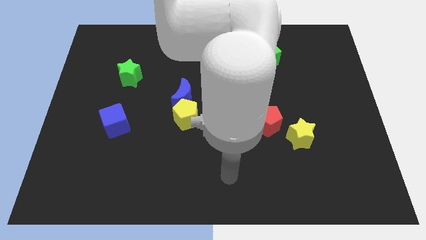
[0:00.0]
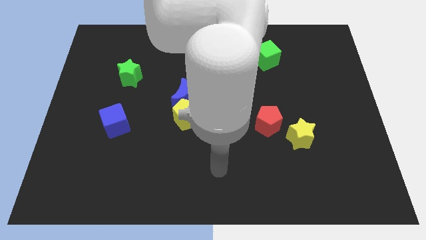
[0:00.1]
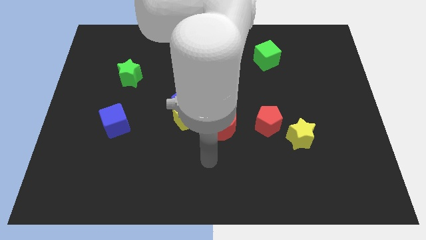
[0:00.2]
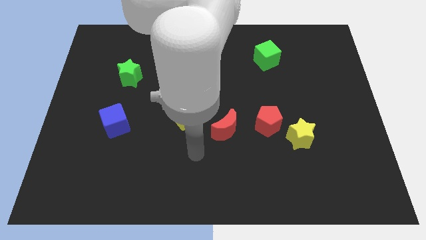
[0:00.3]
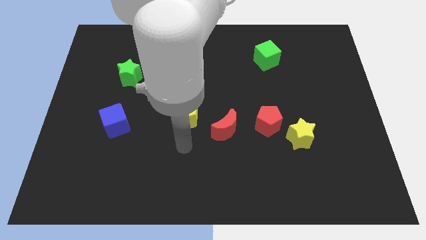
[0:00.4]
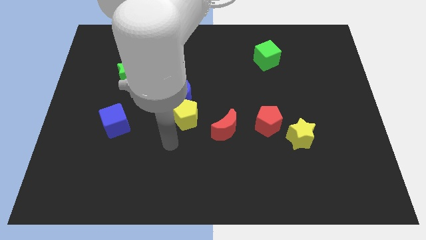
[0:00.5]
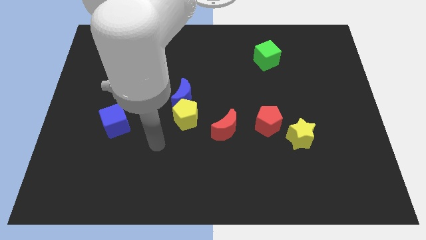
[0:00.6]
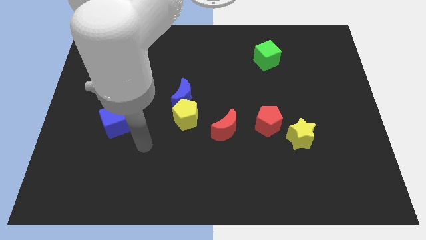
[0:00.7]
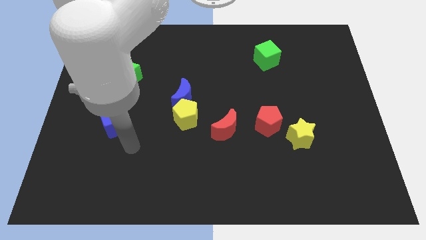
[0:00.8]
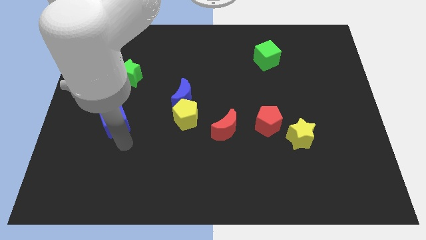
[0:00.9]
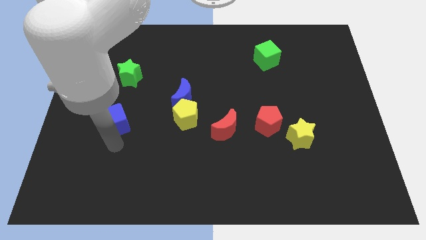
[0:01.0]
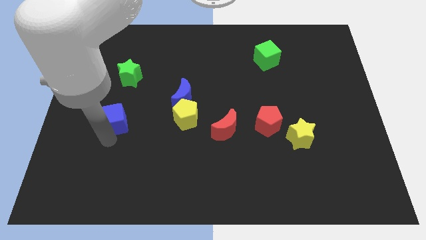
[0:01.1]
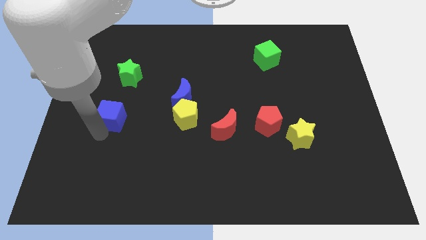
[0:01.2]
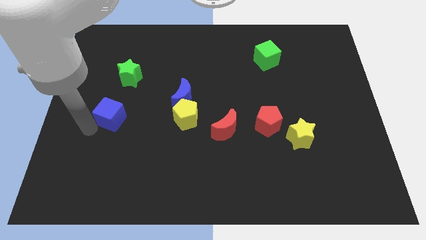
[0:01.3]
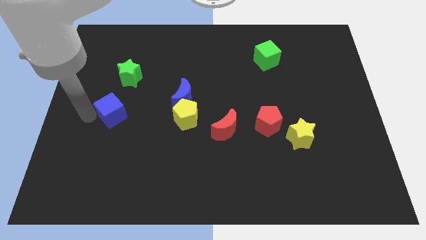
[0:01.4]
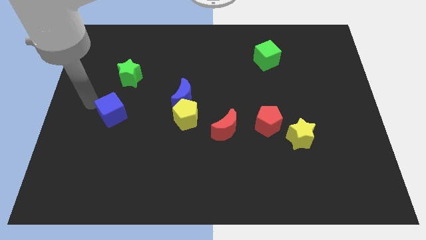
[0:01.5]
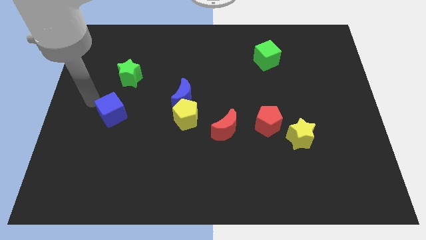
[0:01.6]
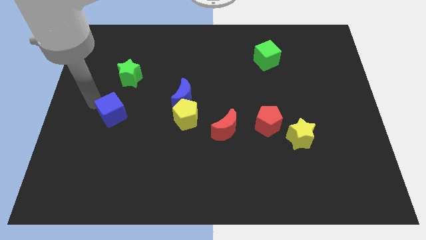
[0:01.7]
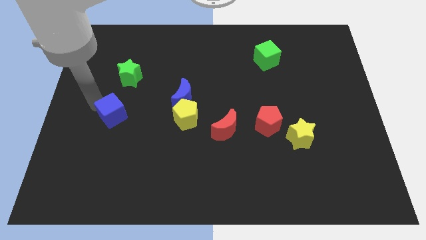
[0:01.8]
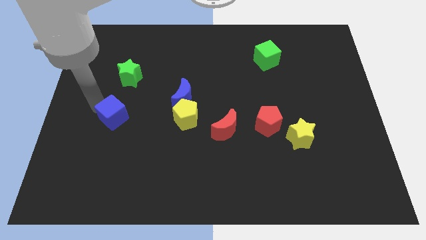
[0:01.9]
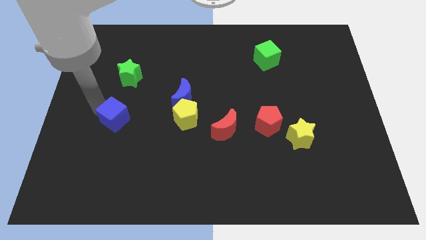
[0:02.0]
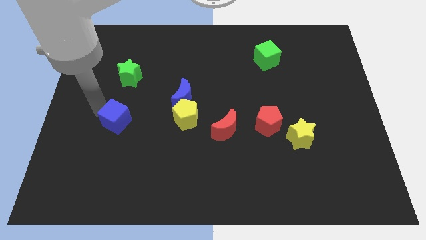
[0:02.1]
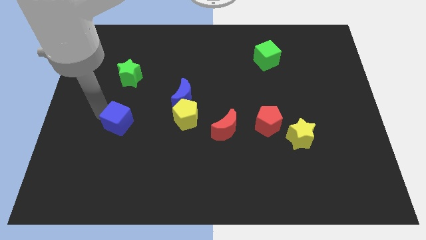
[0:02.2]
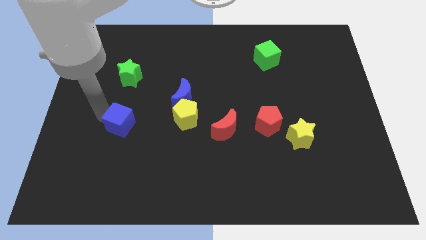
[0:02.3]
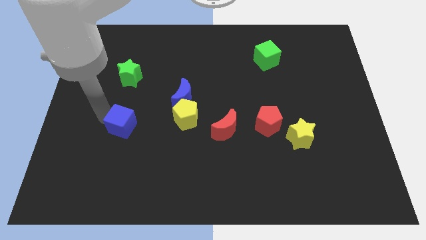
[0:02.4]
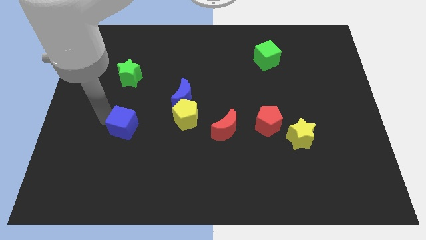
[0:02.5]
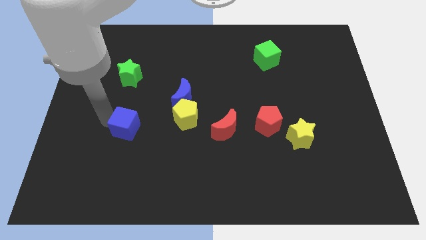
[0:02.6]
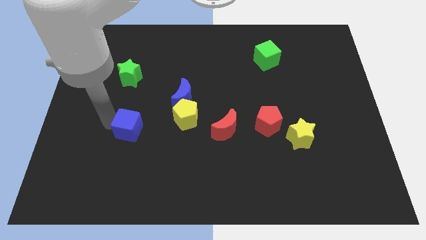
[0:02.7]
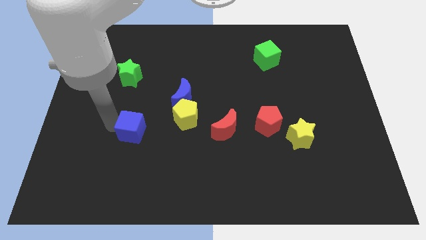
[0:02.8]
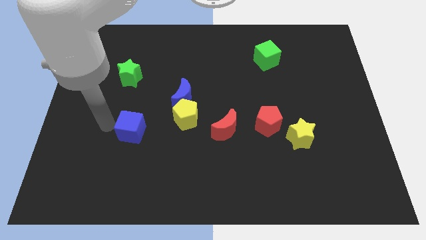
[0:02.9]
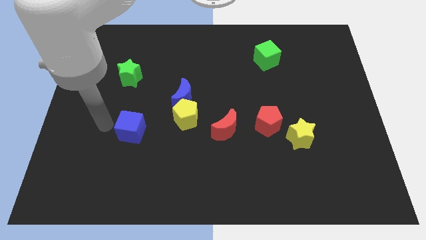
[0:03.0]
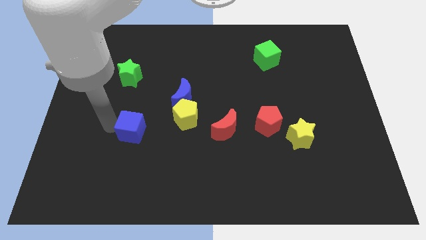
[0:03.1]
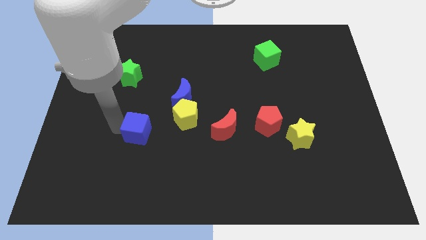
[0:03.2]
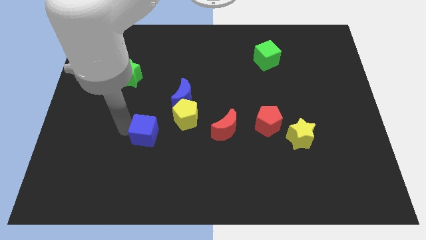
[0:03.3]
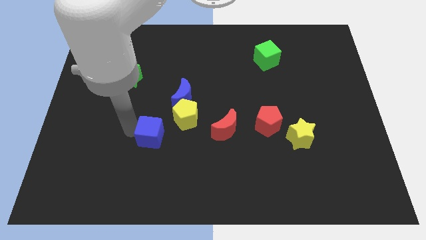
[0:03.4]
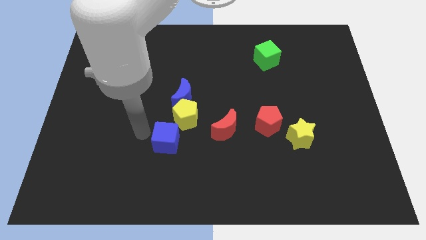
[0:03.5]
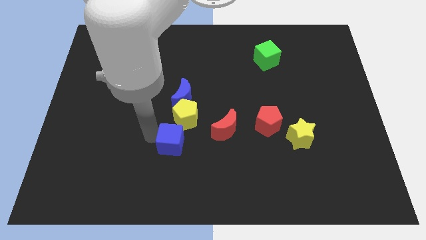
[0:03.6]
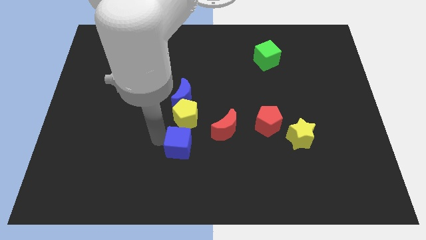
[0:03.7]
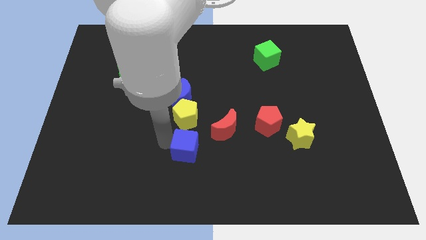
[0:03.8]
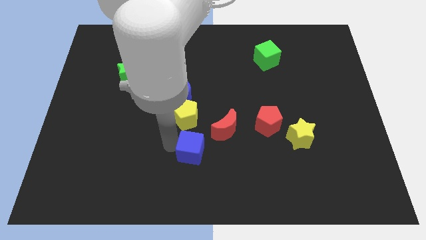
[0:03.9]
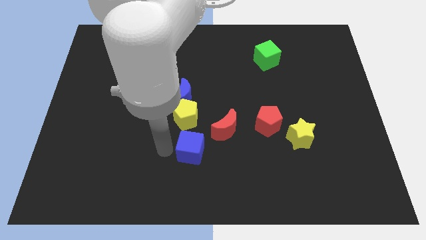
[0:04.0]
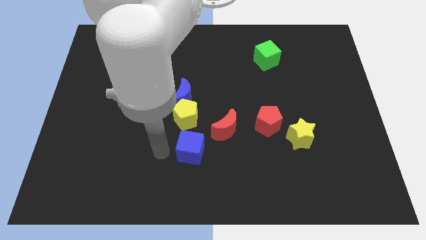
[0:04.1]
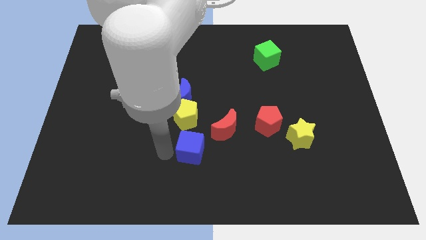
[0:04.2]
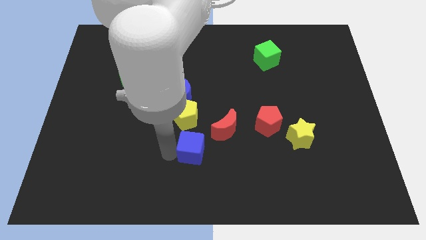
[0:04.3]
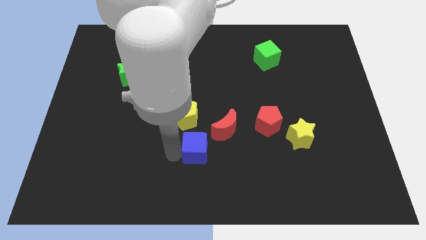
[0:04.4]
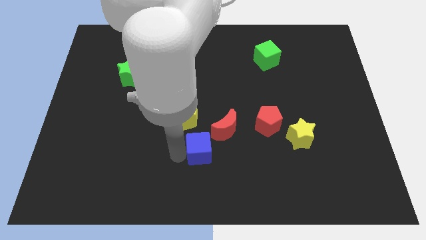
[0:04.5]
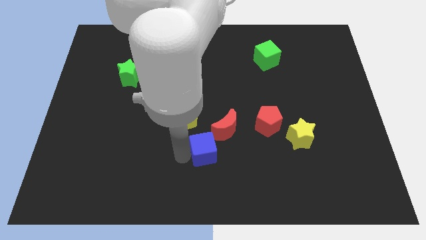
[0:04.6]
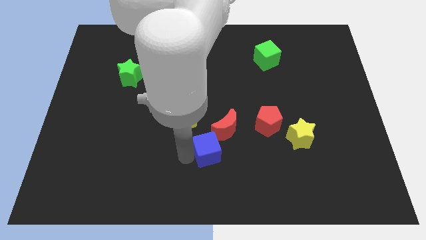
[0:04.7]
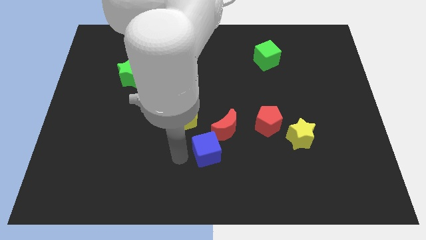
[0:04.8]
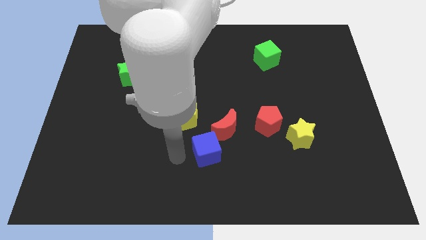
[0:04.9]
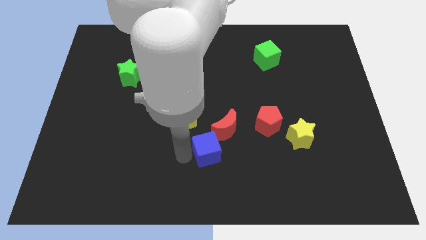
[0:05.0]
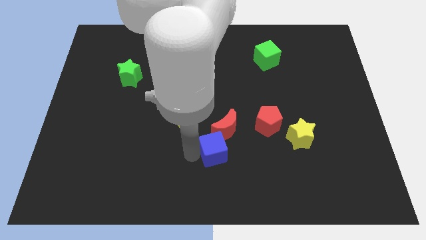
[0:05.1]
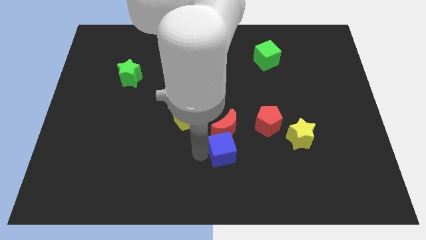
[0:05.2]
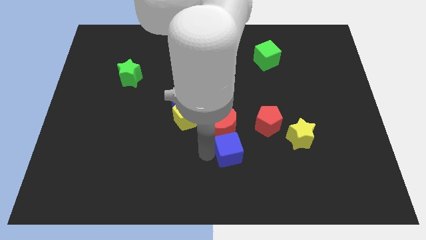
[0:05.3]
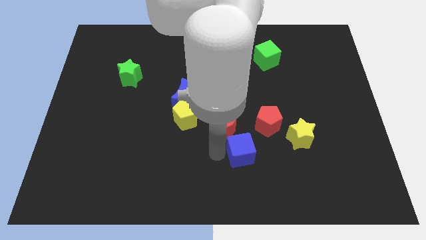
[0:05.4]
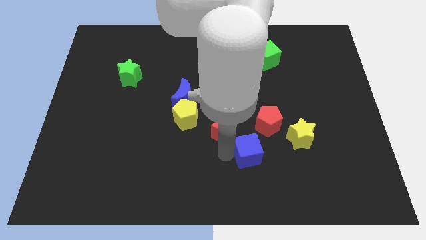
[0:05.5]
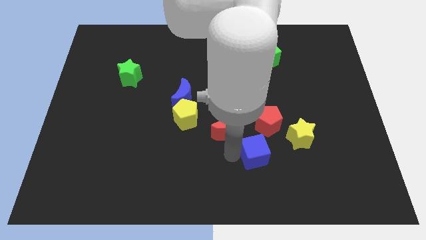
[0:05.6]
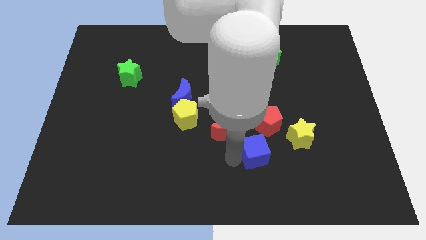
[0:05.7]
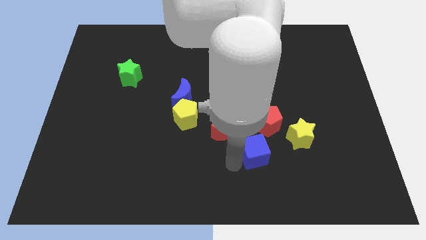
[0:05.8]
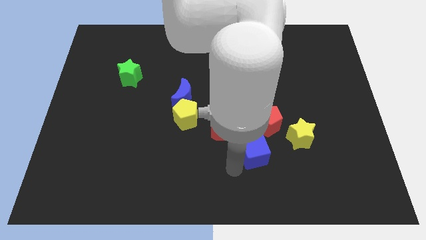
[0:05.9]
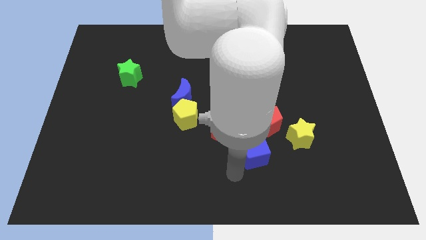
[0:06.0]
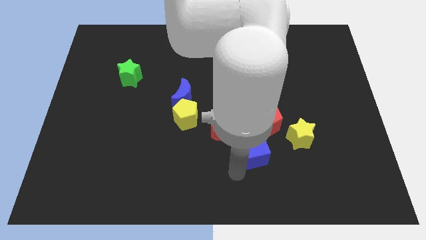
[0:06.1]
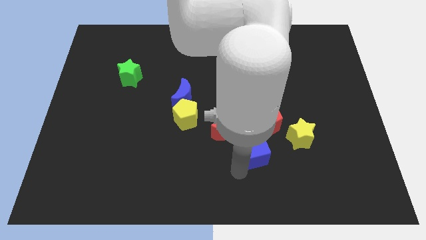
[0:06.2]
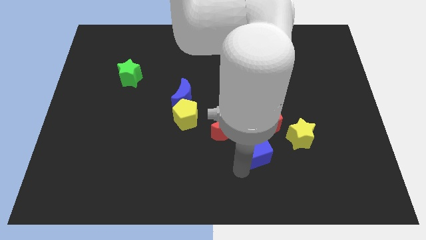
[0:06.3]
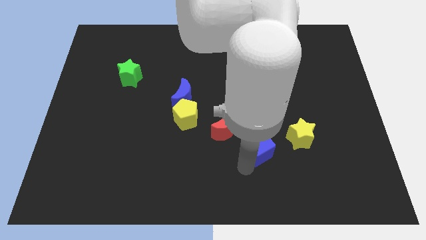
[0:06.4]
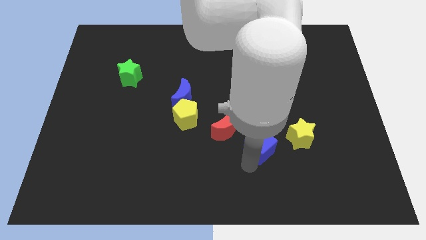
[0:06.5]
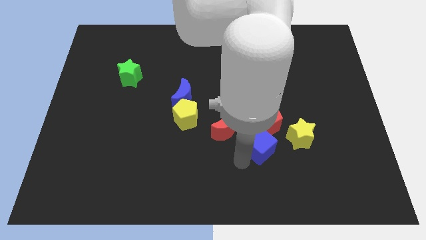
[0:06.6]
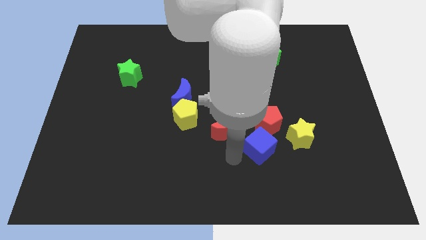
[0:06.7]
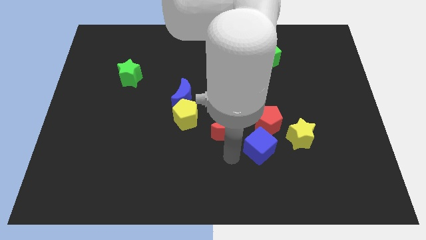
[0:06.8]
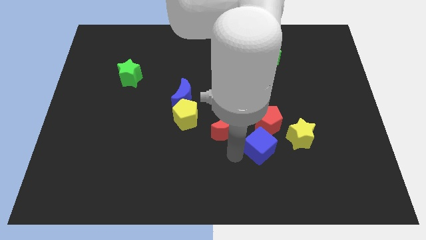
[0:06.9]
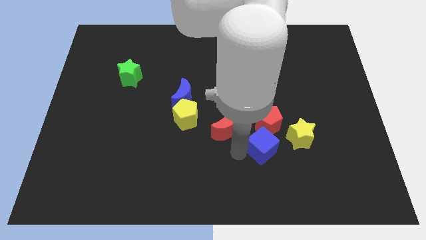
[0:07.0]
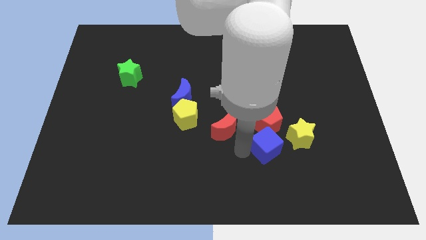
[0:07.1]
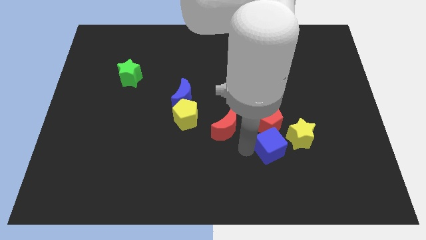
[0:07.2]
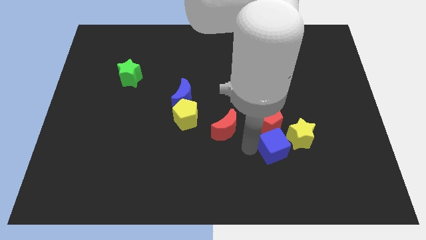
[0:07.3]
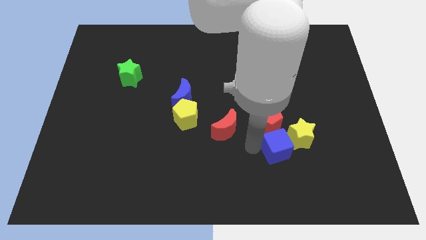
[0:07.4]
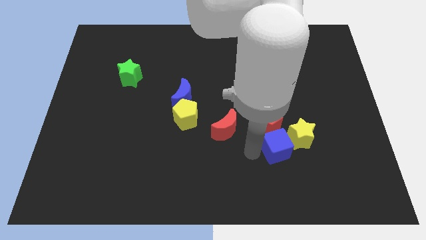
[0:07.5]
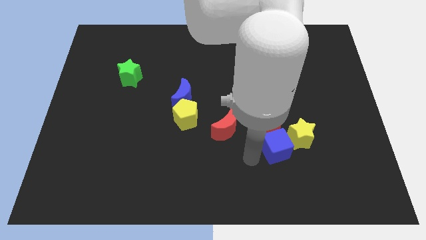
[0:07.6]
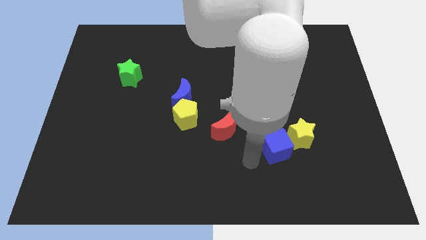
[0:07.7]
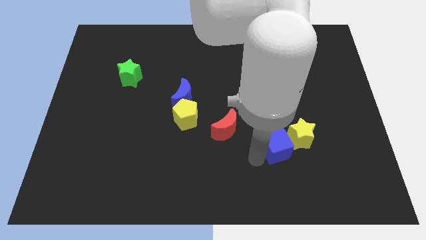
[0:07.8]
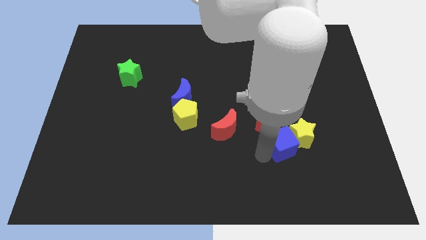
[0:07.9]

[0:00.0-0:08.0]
put the blue cube close to the yellow star

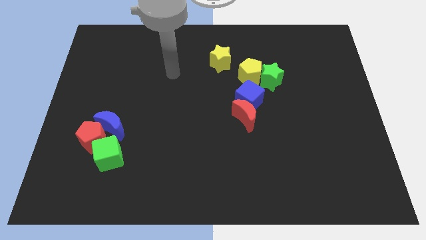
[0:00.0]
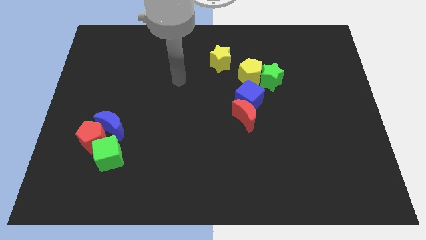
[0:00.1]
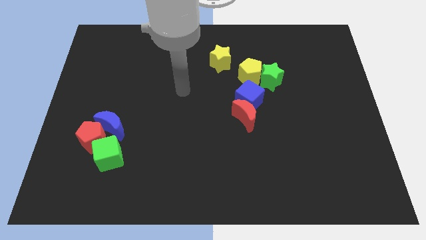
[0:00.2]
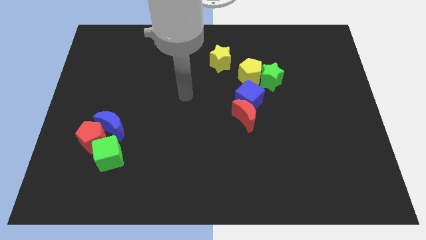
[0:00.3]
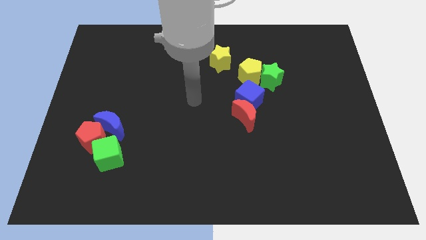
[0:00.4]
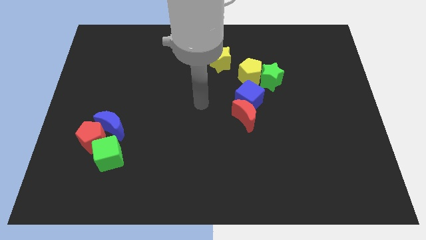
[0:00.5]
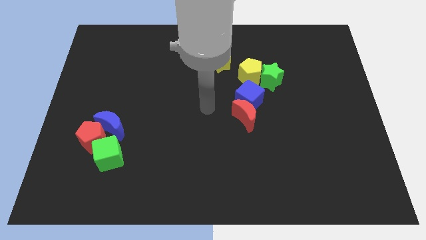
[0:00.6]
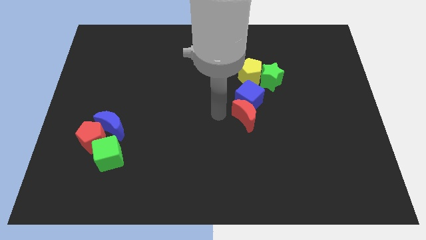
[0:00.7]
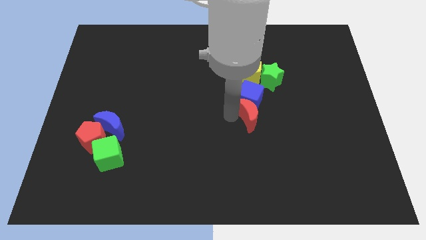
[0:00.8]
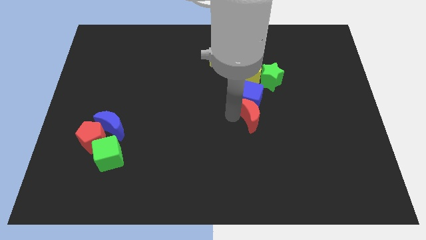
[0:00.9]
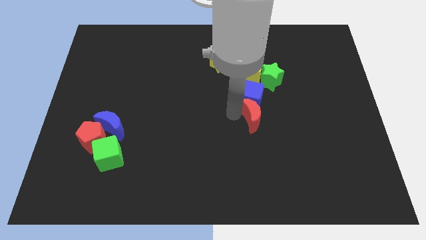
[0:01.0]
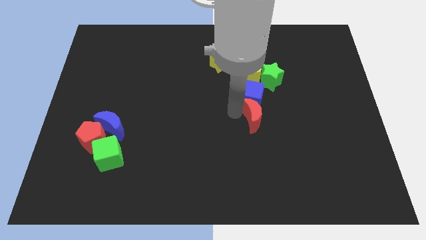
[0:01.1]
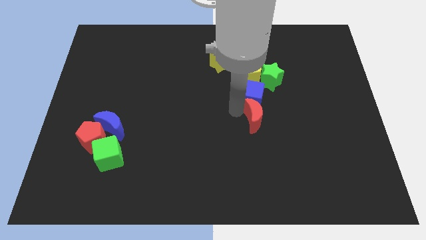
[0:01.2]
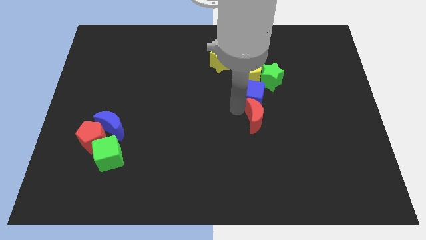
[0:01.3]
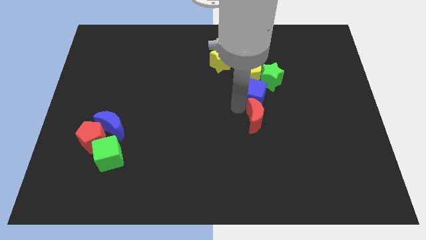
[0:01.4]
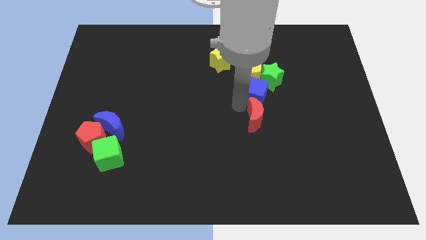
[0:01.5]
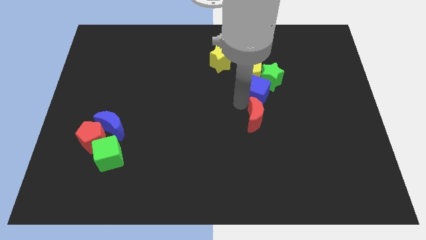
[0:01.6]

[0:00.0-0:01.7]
slide the blue cube next to the green star
